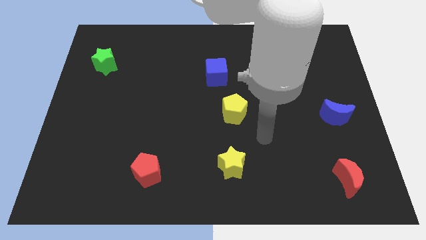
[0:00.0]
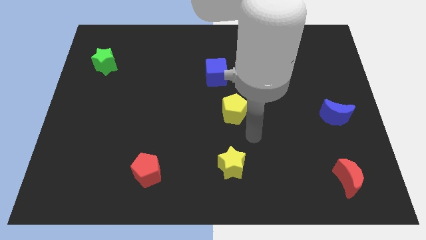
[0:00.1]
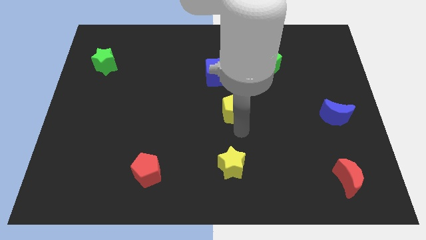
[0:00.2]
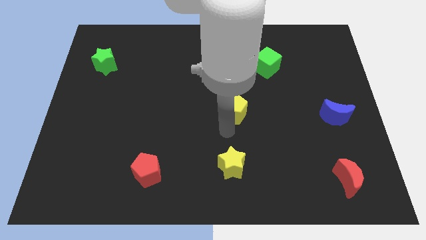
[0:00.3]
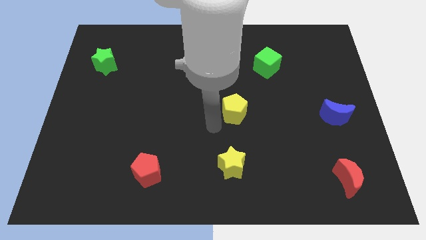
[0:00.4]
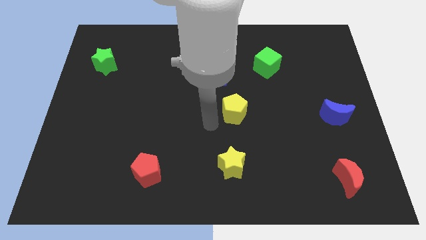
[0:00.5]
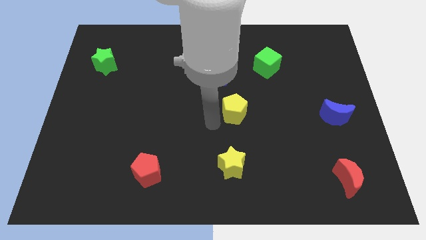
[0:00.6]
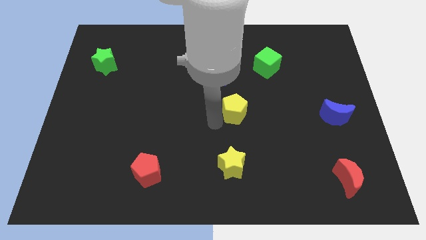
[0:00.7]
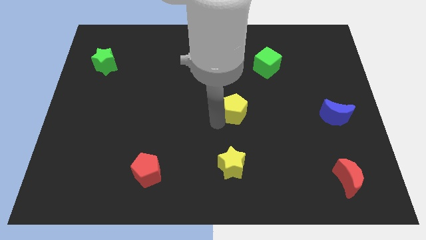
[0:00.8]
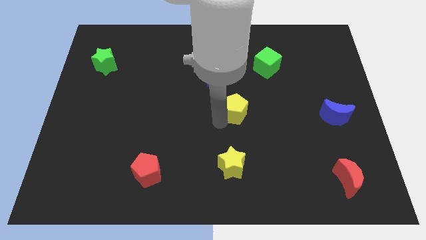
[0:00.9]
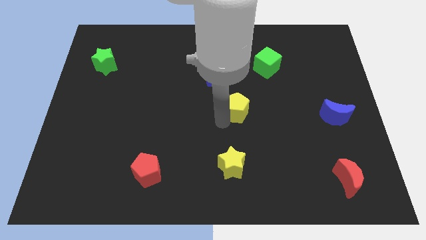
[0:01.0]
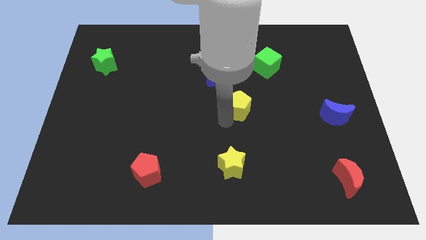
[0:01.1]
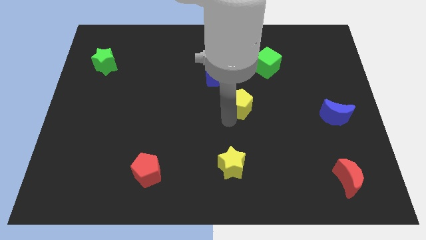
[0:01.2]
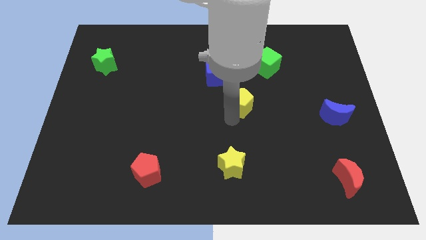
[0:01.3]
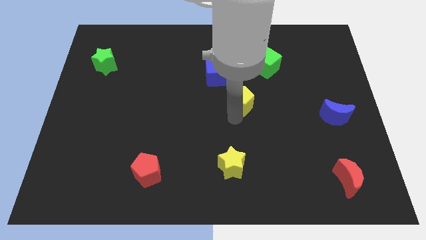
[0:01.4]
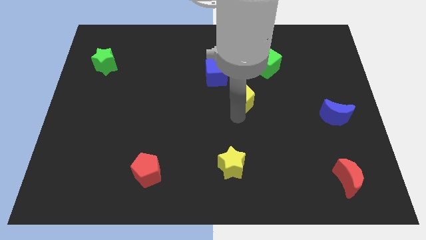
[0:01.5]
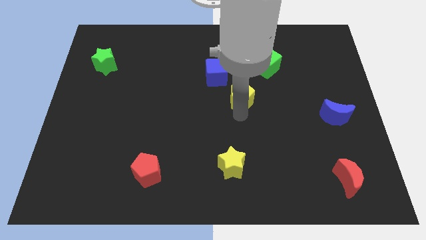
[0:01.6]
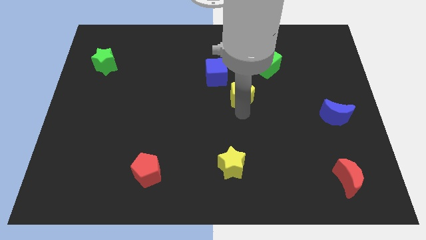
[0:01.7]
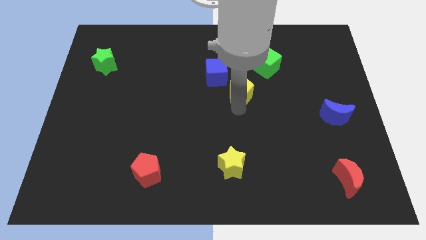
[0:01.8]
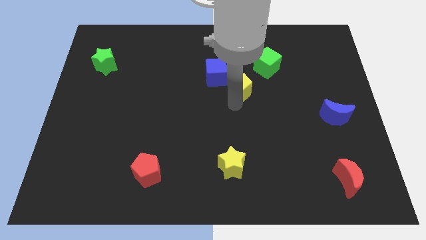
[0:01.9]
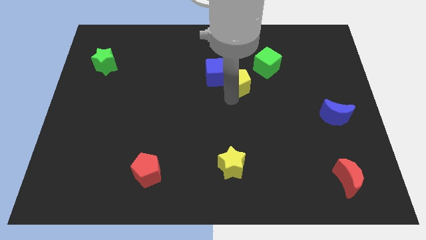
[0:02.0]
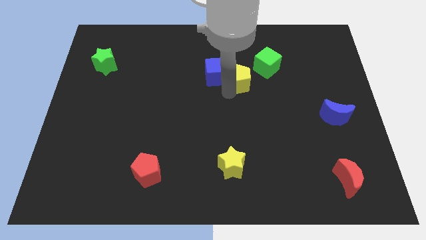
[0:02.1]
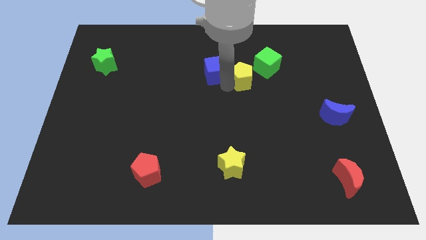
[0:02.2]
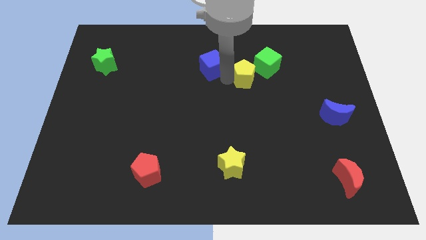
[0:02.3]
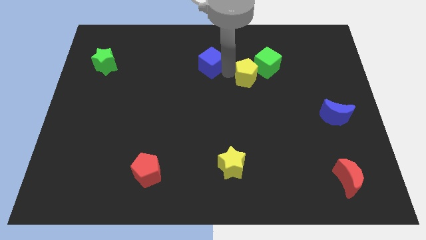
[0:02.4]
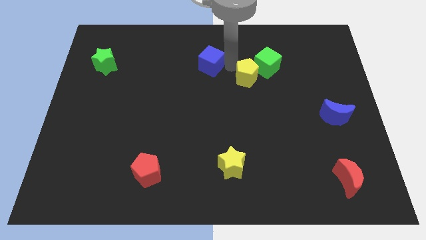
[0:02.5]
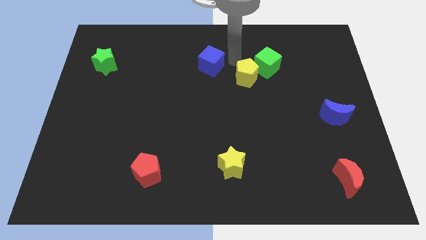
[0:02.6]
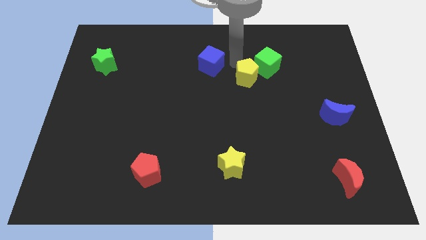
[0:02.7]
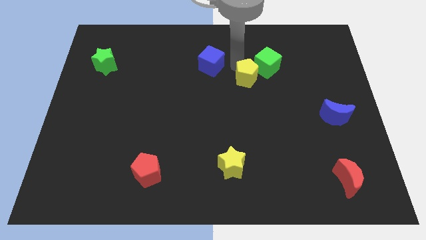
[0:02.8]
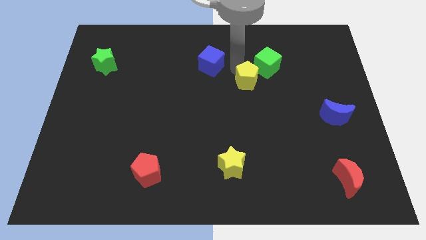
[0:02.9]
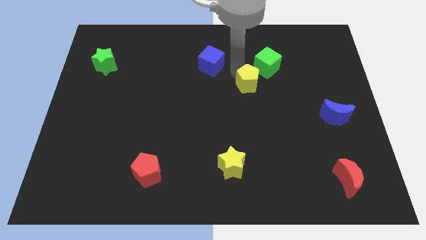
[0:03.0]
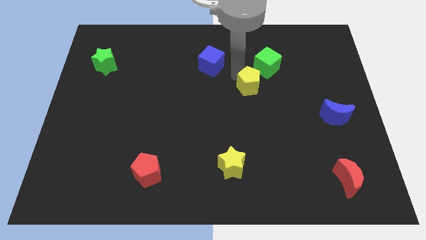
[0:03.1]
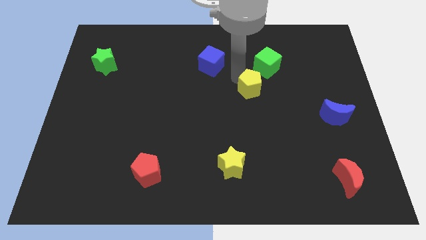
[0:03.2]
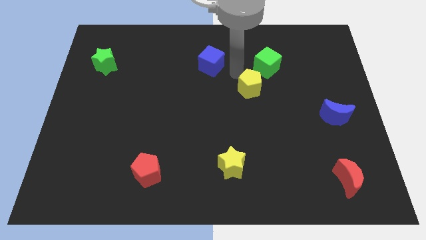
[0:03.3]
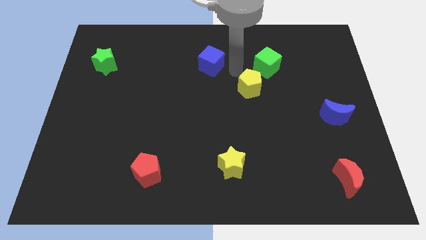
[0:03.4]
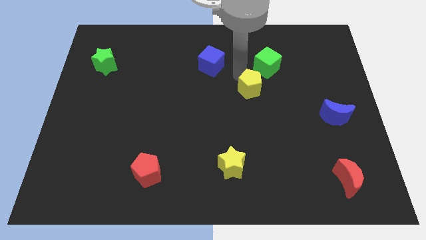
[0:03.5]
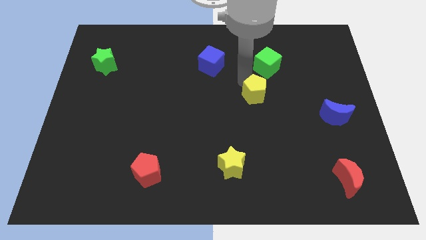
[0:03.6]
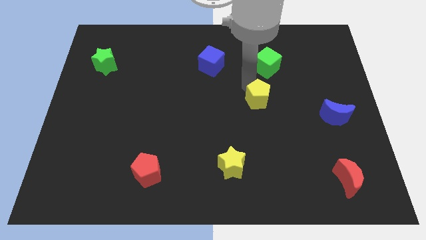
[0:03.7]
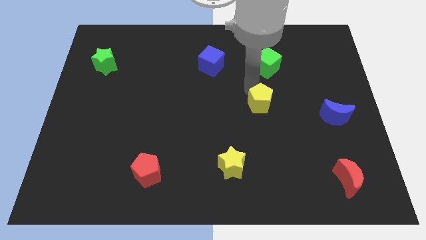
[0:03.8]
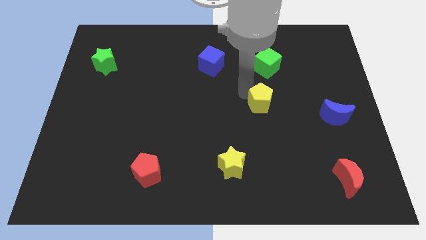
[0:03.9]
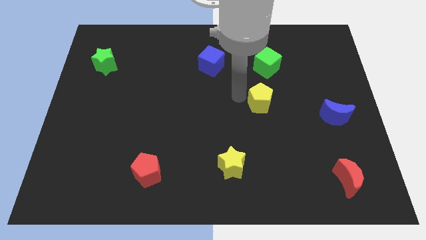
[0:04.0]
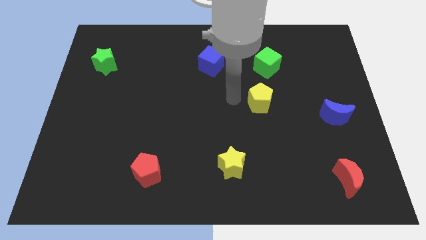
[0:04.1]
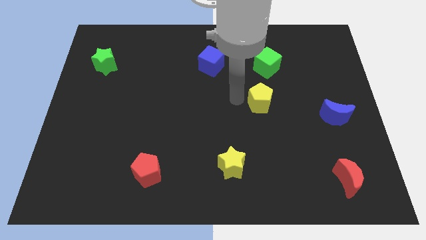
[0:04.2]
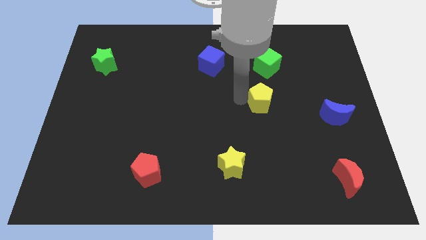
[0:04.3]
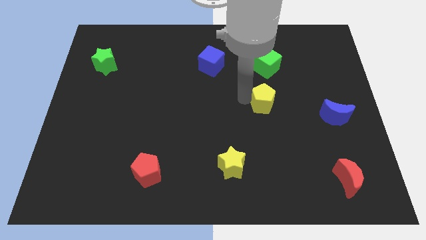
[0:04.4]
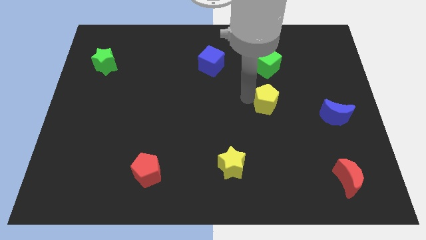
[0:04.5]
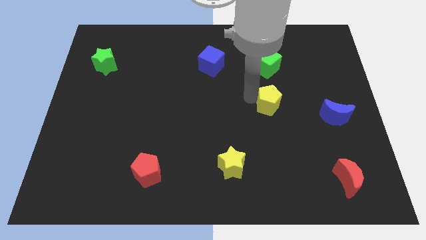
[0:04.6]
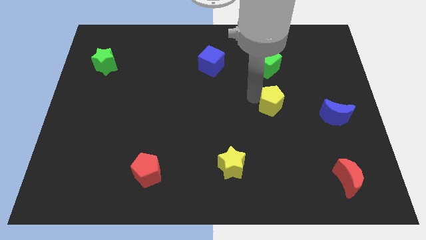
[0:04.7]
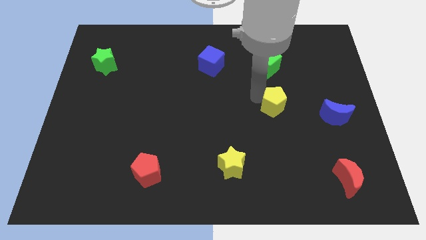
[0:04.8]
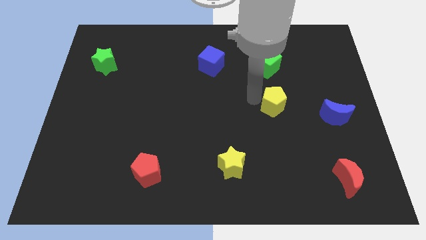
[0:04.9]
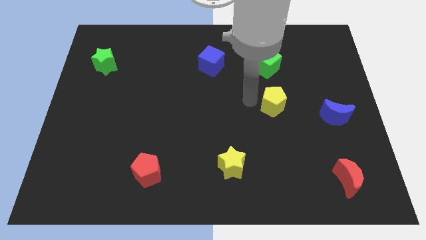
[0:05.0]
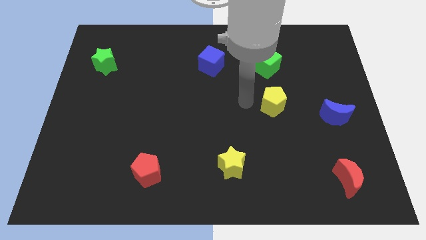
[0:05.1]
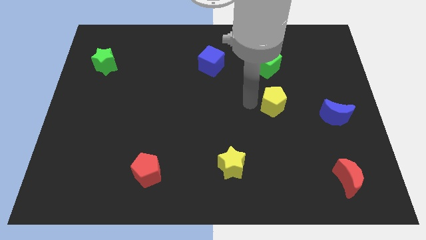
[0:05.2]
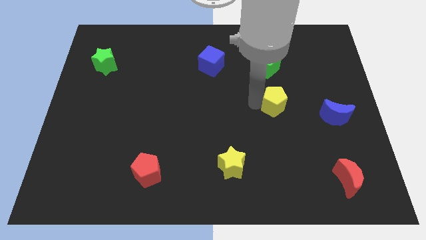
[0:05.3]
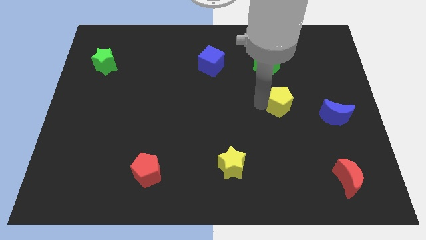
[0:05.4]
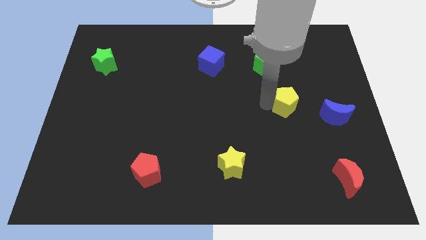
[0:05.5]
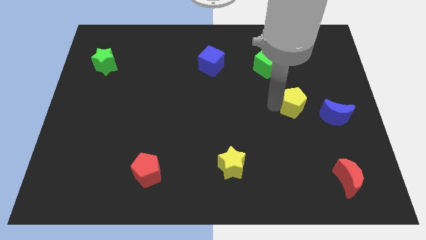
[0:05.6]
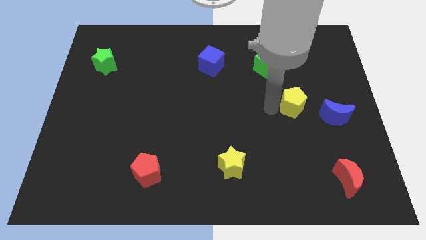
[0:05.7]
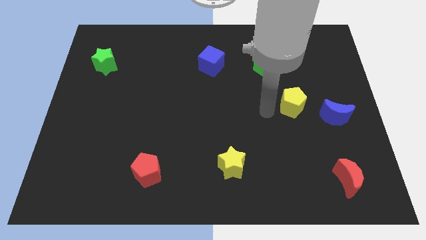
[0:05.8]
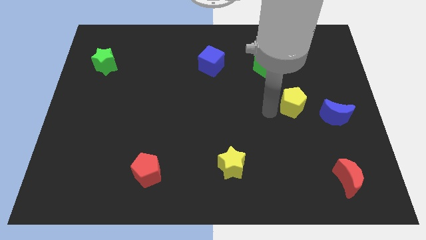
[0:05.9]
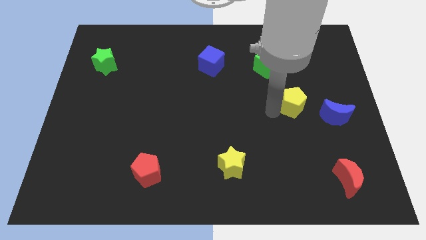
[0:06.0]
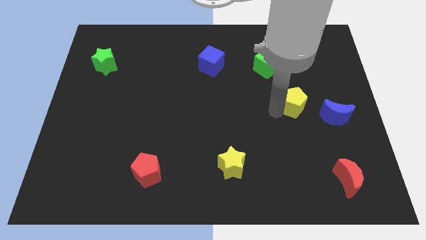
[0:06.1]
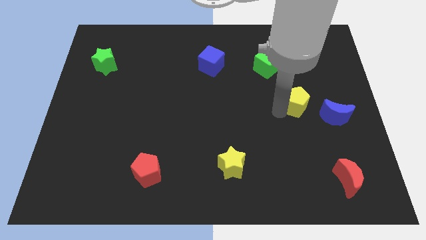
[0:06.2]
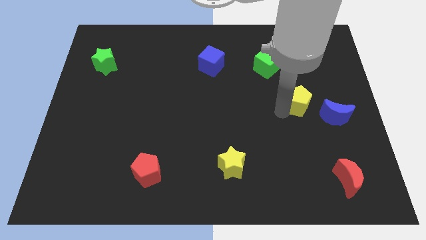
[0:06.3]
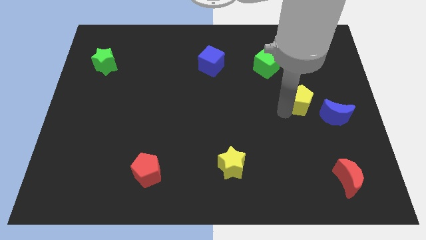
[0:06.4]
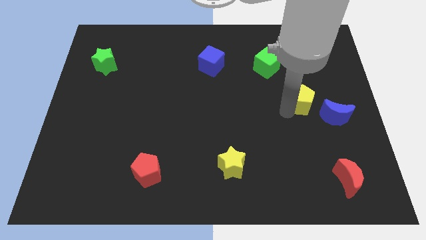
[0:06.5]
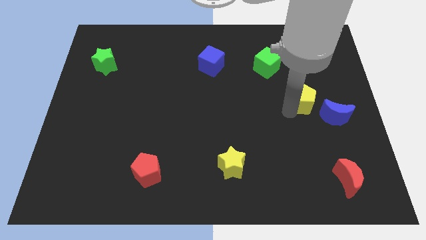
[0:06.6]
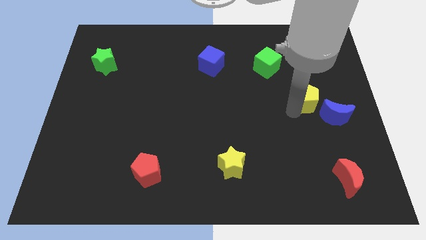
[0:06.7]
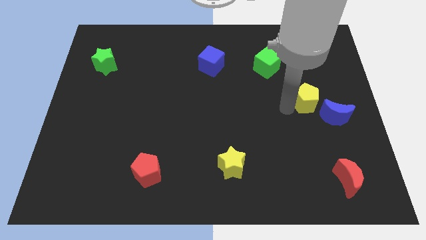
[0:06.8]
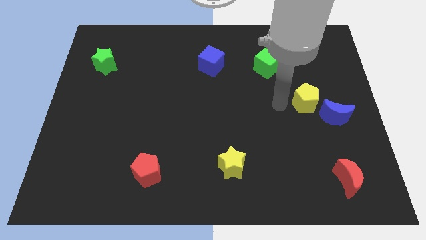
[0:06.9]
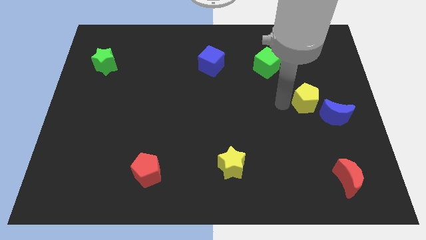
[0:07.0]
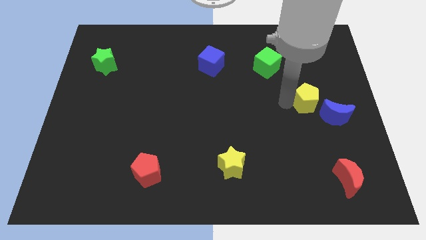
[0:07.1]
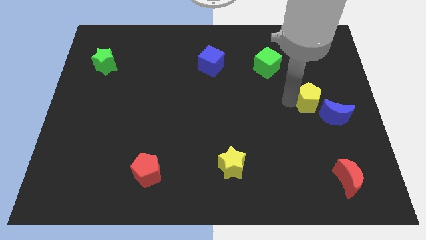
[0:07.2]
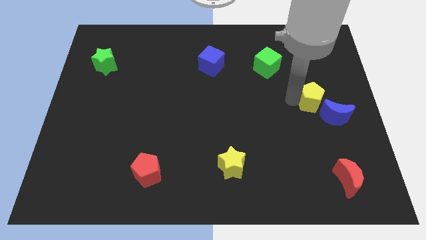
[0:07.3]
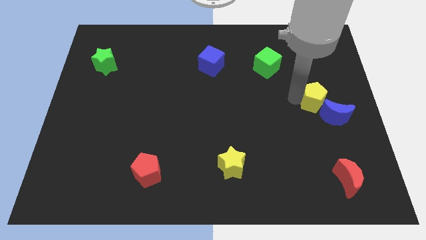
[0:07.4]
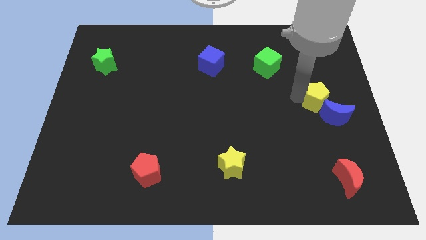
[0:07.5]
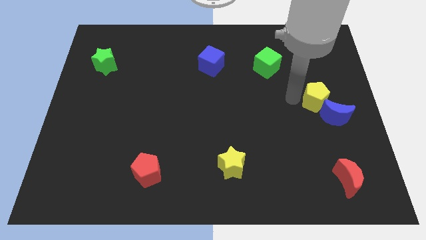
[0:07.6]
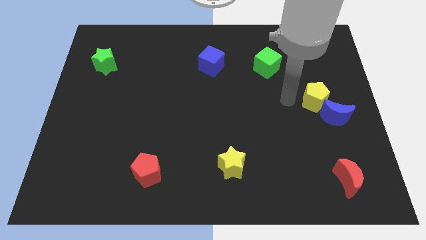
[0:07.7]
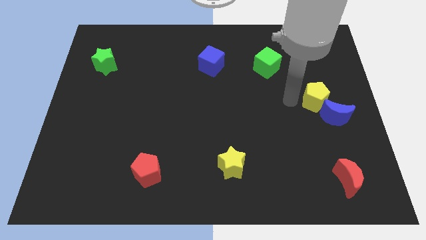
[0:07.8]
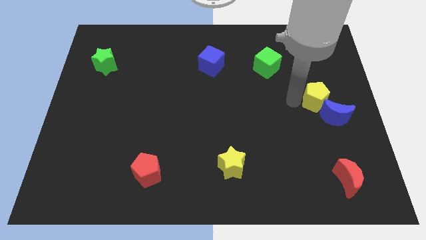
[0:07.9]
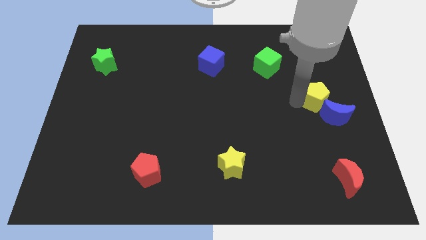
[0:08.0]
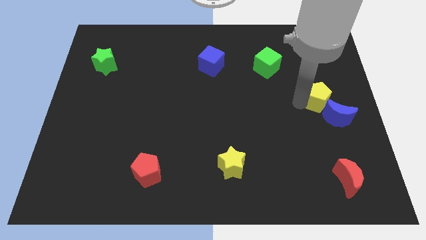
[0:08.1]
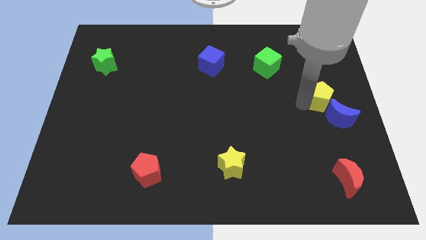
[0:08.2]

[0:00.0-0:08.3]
put the yellow pentagon to the right side
